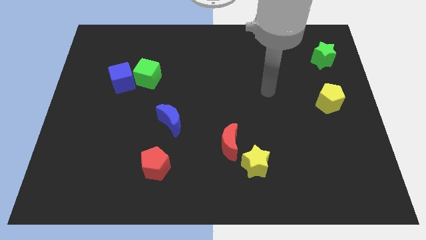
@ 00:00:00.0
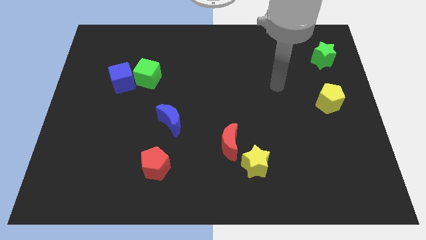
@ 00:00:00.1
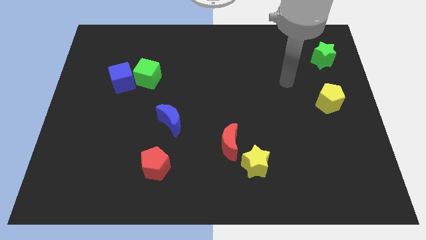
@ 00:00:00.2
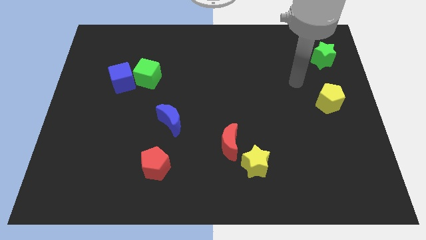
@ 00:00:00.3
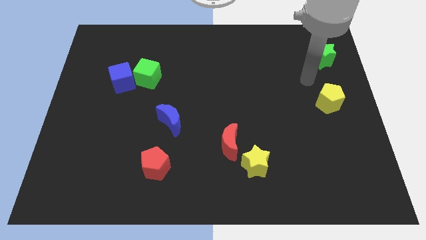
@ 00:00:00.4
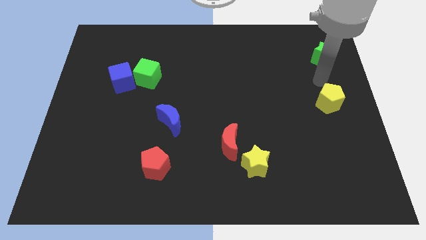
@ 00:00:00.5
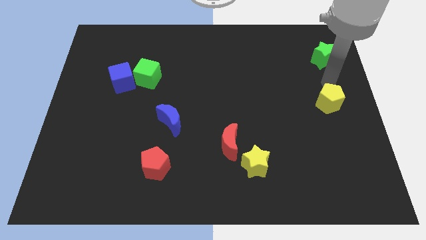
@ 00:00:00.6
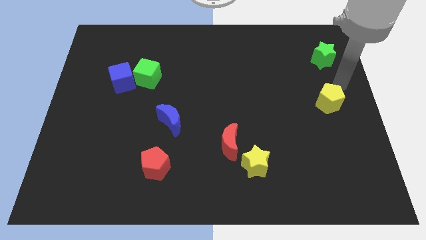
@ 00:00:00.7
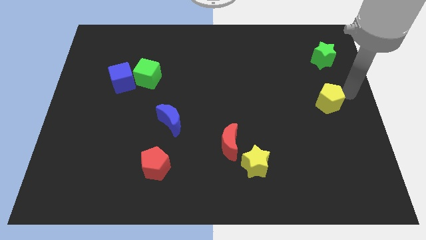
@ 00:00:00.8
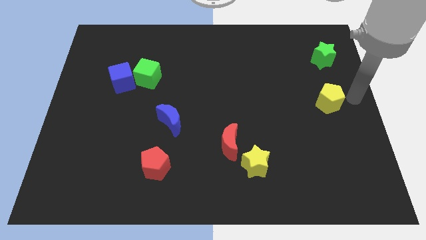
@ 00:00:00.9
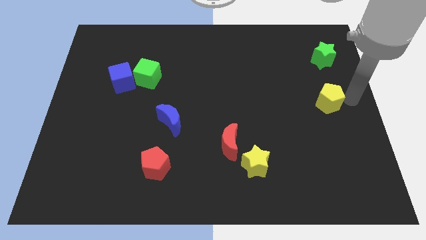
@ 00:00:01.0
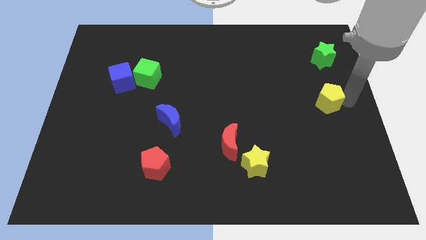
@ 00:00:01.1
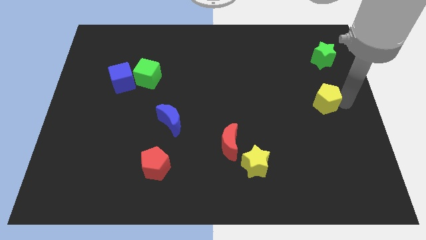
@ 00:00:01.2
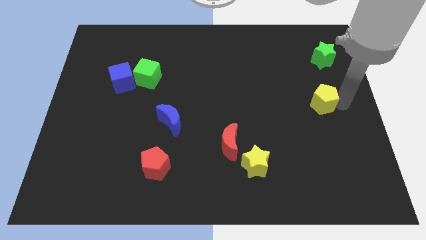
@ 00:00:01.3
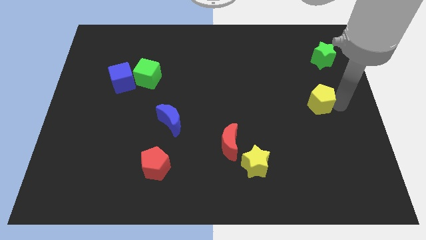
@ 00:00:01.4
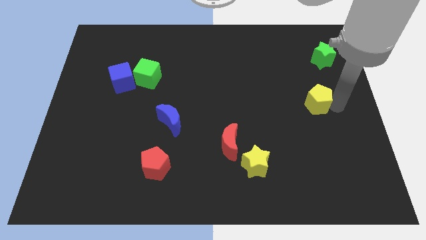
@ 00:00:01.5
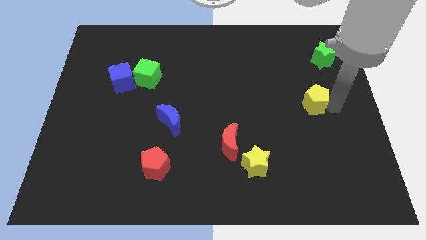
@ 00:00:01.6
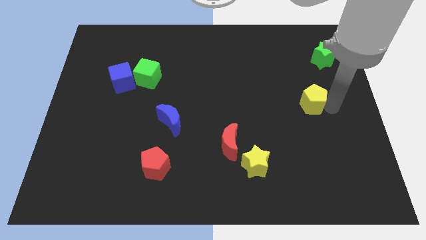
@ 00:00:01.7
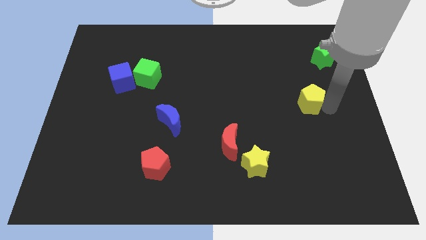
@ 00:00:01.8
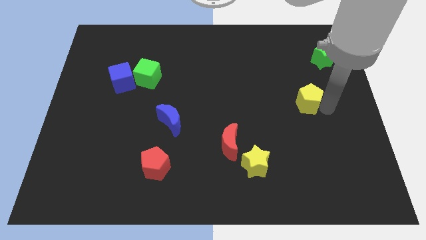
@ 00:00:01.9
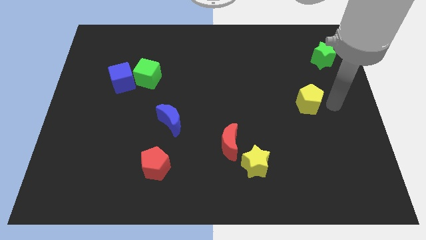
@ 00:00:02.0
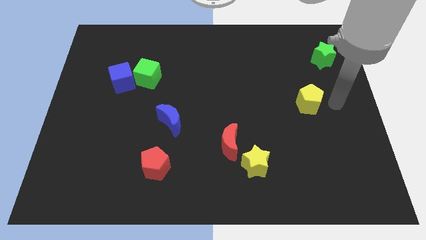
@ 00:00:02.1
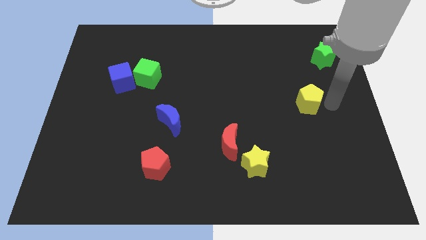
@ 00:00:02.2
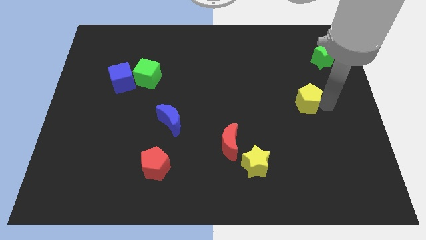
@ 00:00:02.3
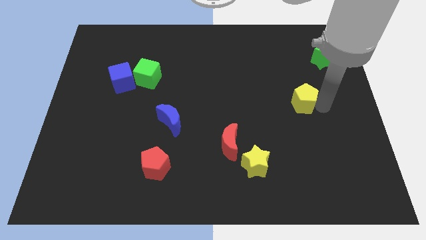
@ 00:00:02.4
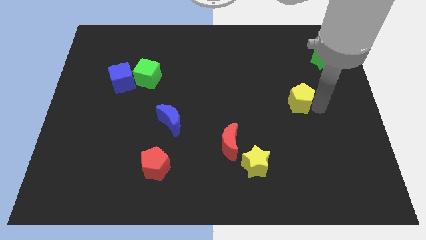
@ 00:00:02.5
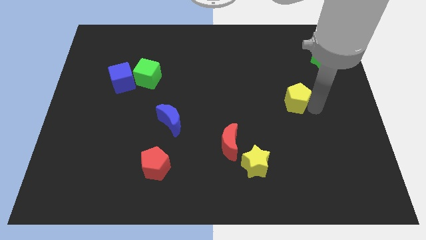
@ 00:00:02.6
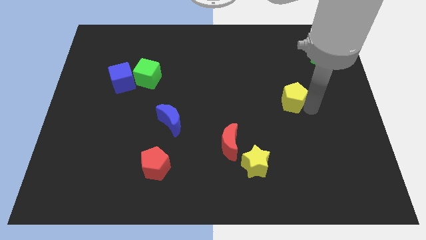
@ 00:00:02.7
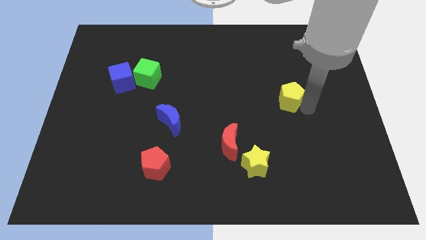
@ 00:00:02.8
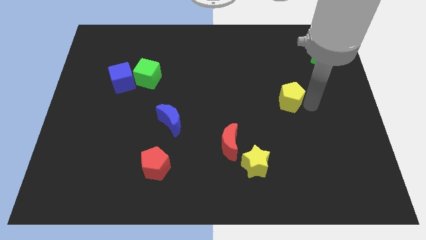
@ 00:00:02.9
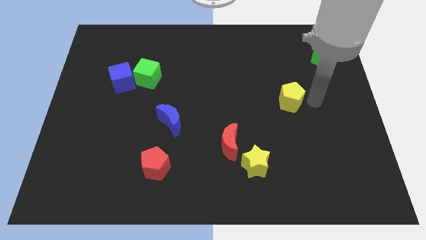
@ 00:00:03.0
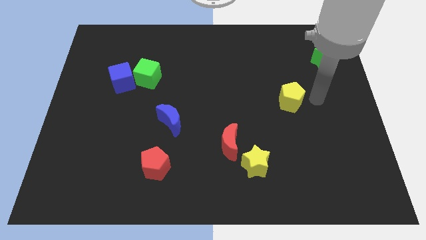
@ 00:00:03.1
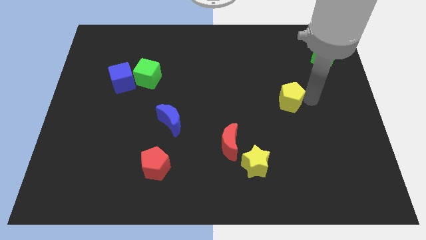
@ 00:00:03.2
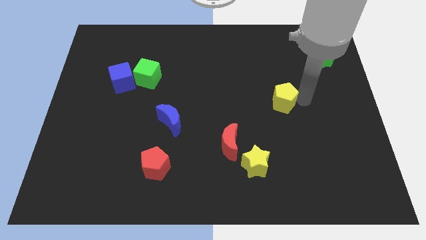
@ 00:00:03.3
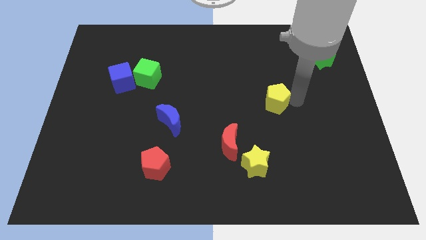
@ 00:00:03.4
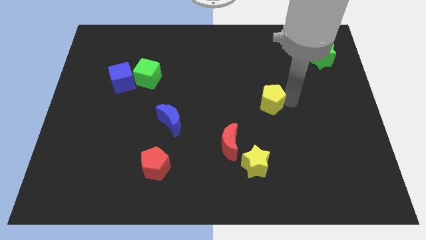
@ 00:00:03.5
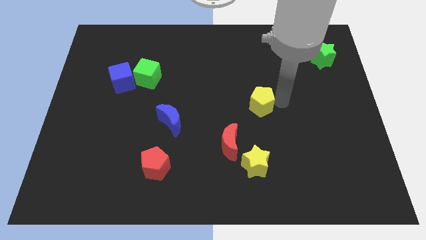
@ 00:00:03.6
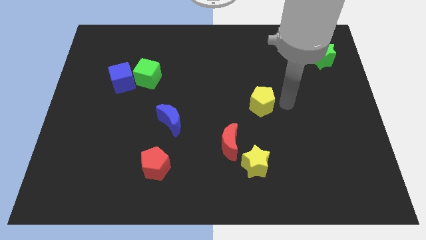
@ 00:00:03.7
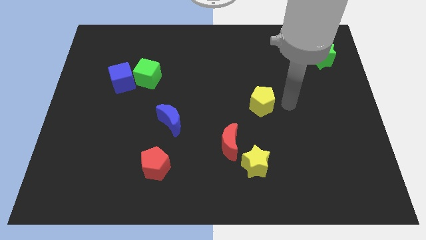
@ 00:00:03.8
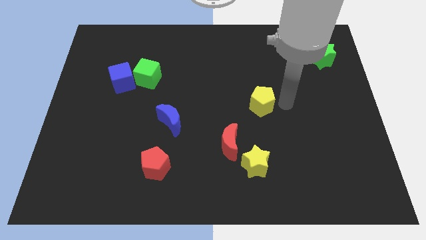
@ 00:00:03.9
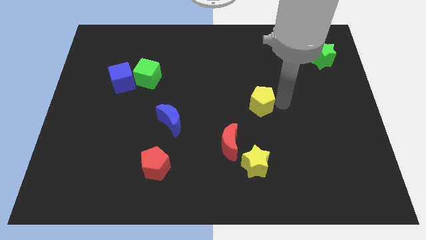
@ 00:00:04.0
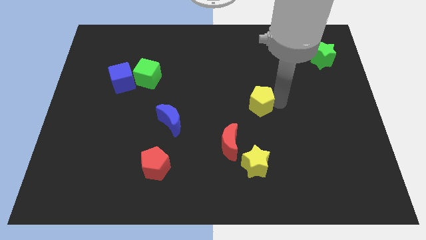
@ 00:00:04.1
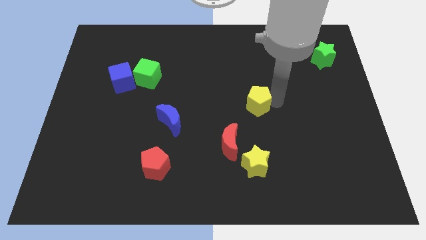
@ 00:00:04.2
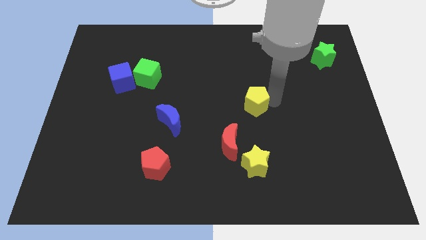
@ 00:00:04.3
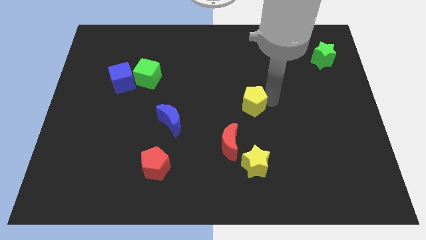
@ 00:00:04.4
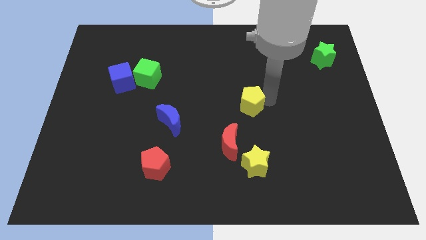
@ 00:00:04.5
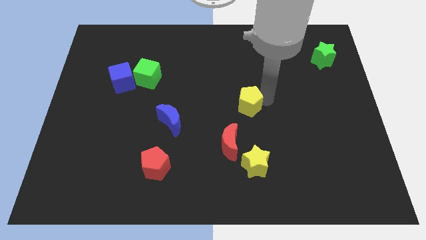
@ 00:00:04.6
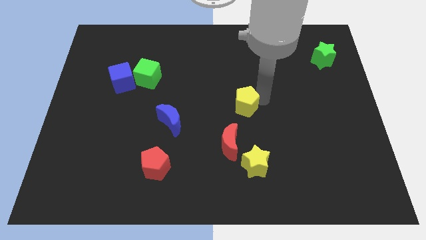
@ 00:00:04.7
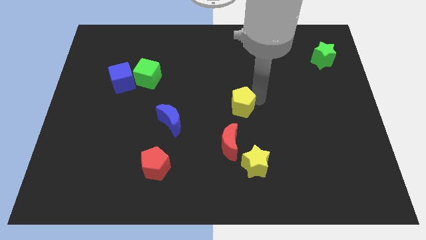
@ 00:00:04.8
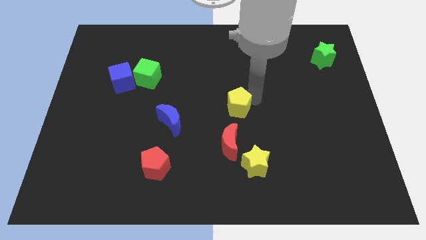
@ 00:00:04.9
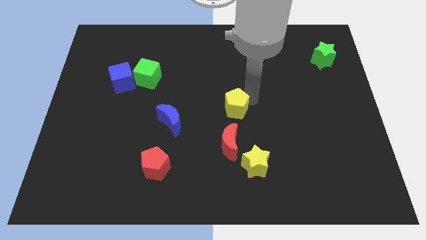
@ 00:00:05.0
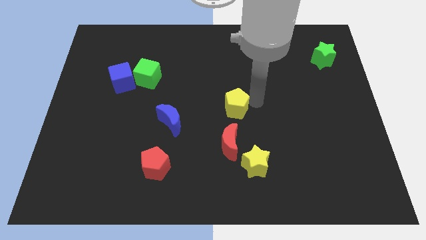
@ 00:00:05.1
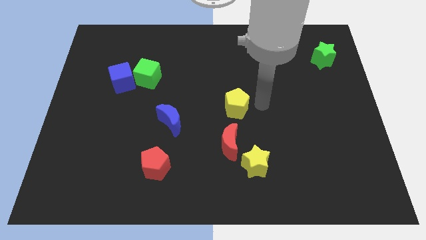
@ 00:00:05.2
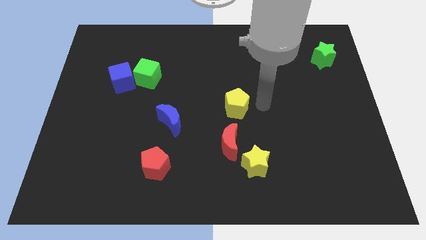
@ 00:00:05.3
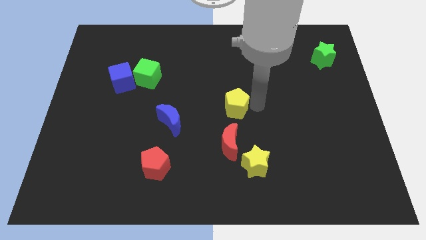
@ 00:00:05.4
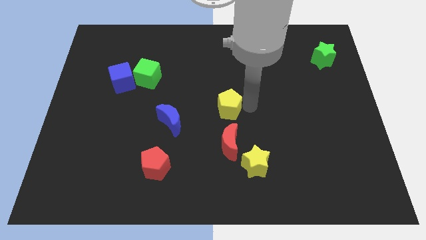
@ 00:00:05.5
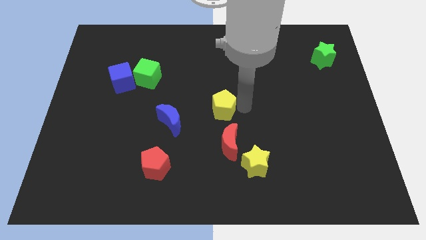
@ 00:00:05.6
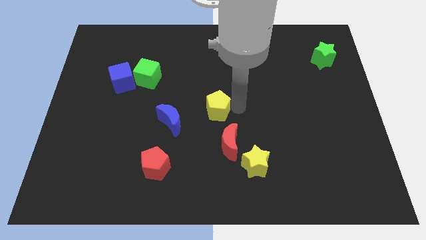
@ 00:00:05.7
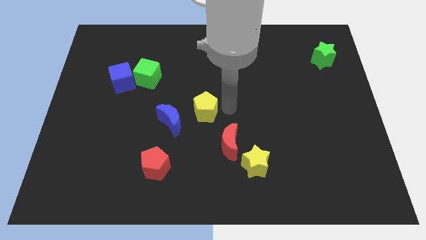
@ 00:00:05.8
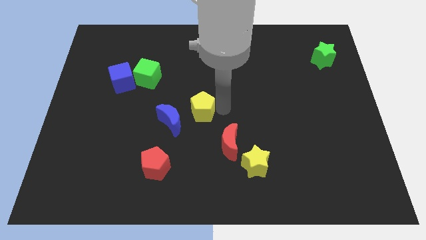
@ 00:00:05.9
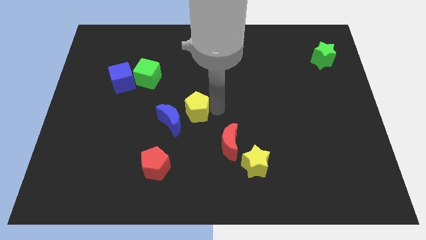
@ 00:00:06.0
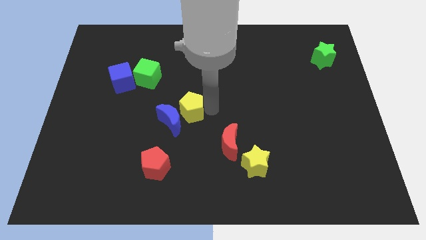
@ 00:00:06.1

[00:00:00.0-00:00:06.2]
push the yellow pentagon to the blue moon
